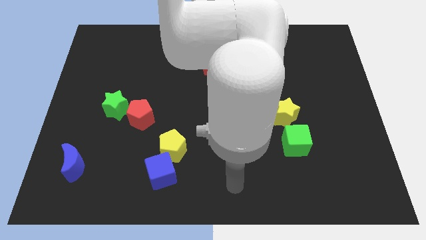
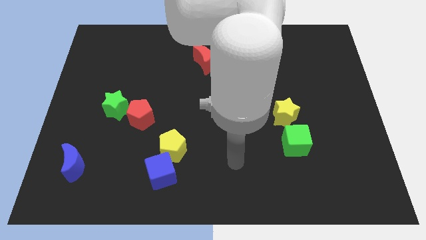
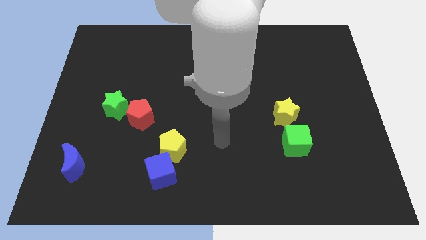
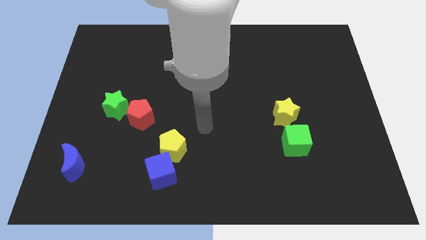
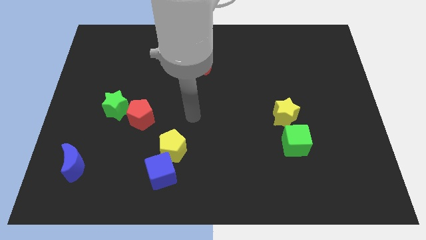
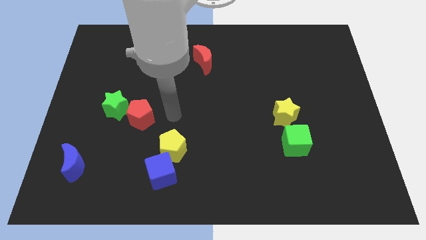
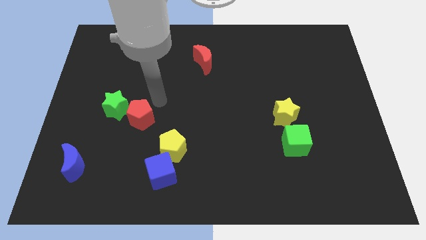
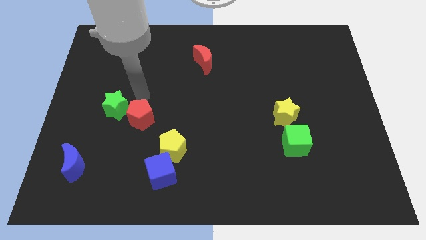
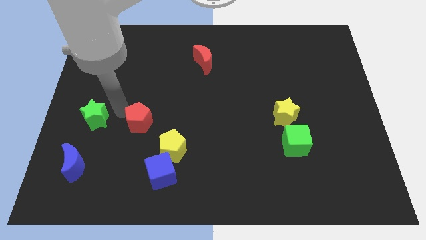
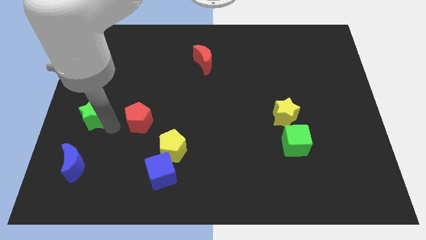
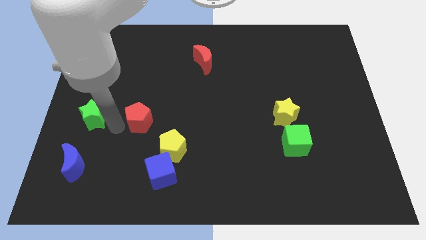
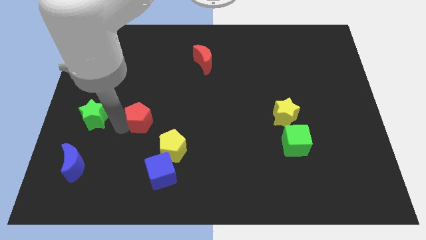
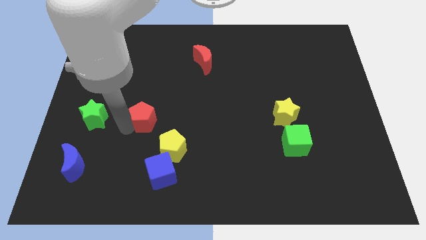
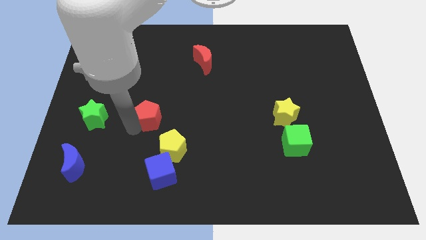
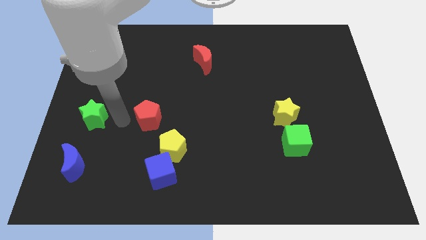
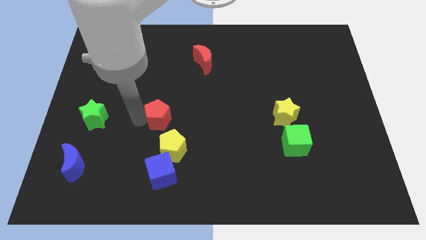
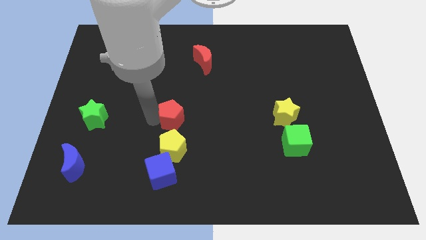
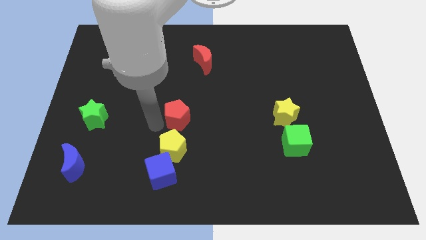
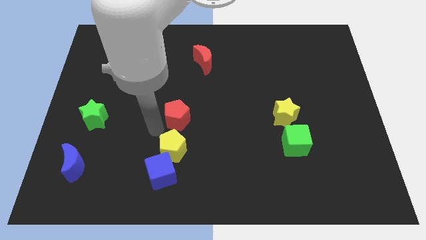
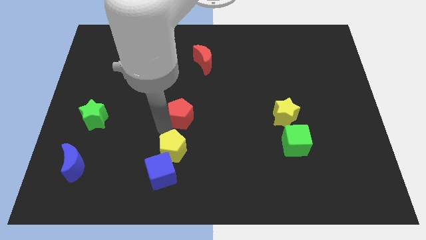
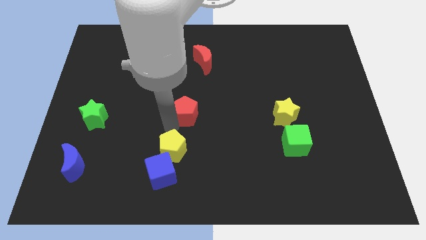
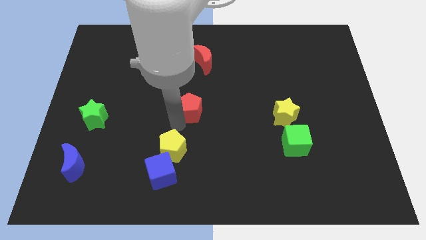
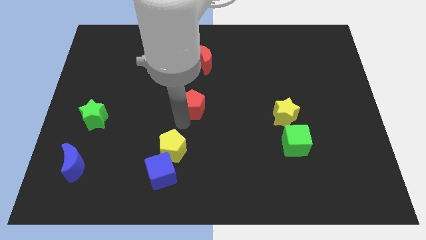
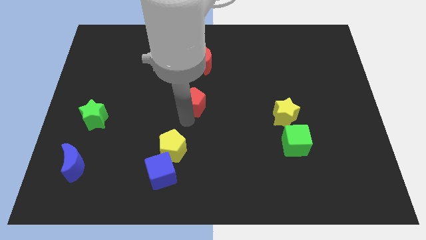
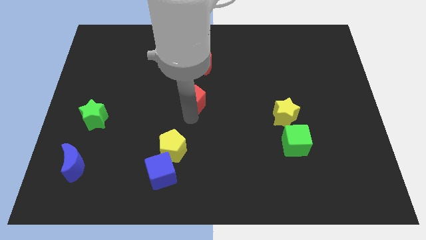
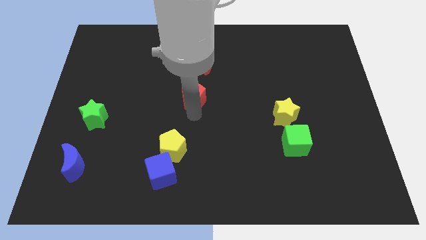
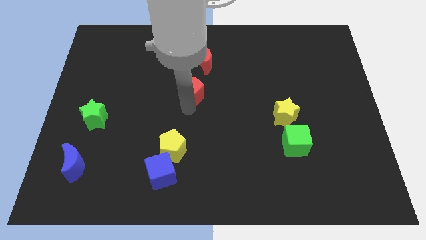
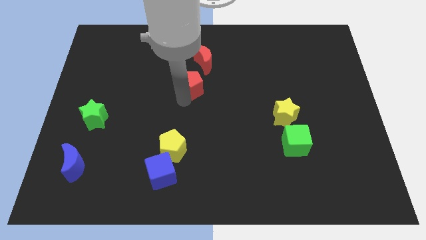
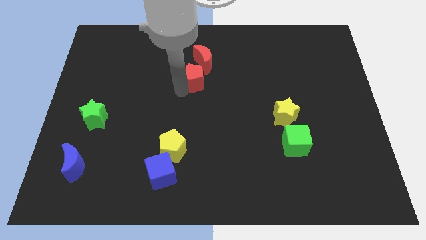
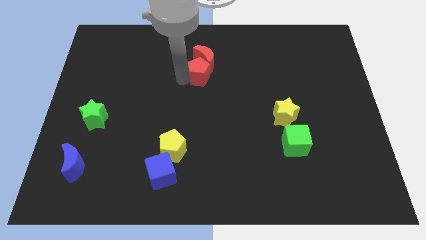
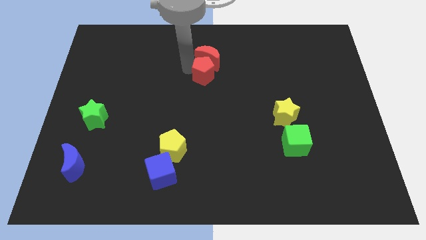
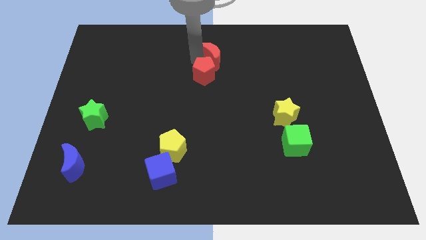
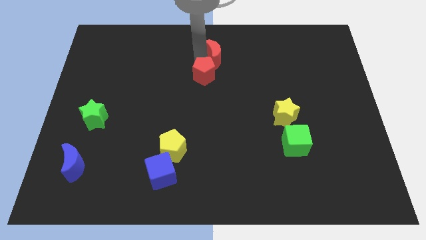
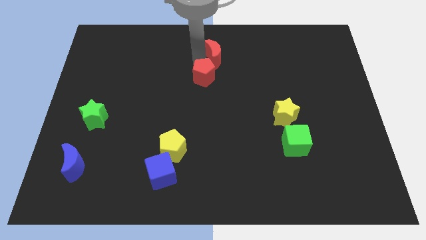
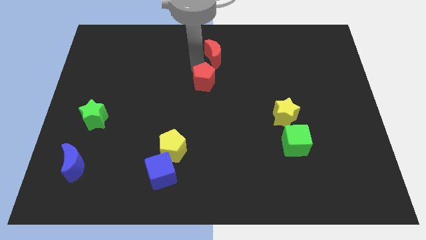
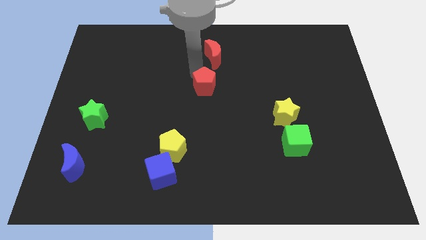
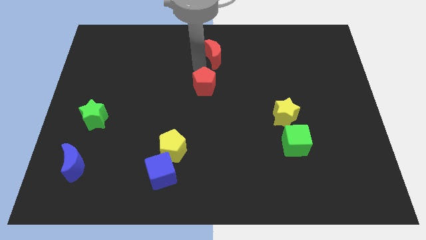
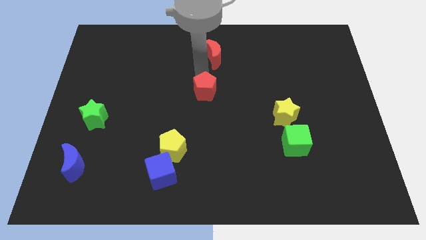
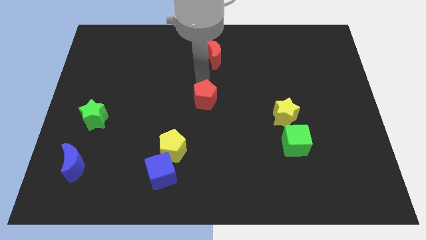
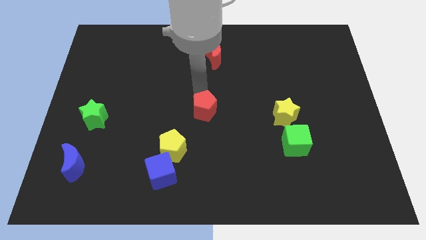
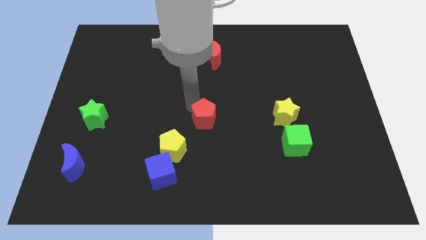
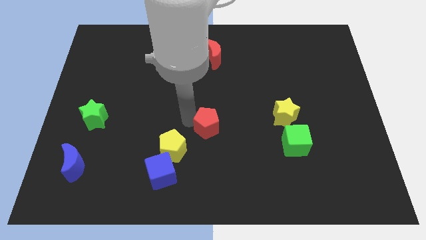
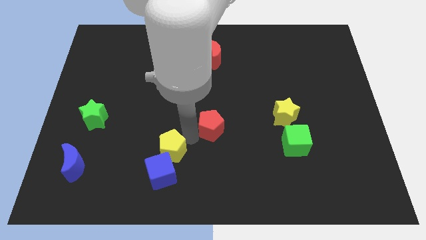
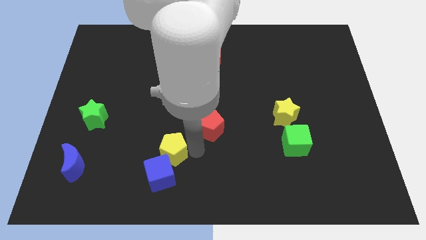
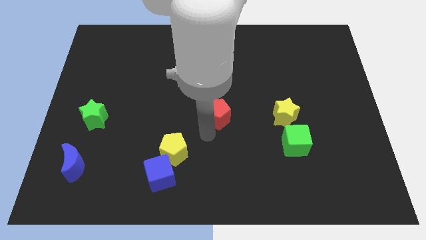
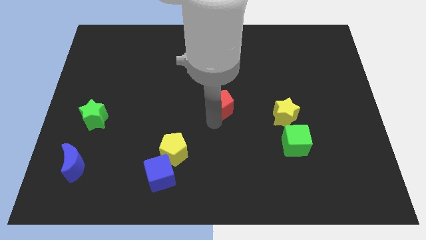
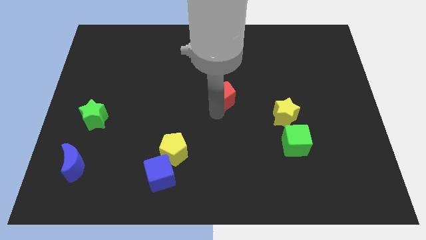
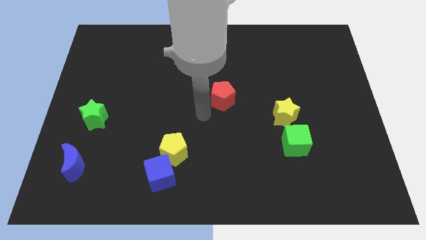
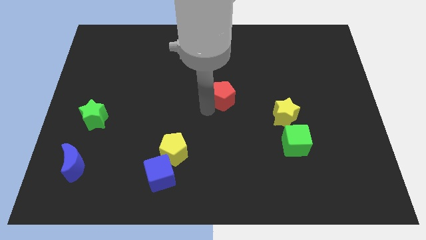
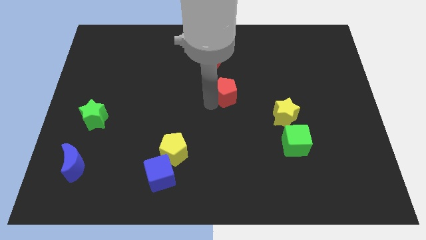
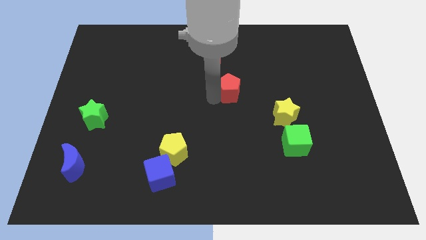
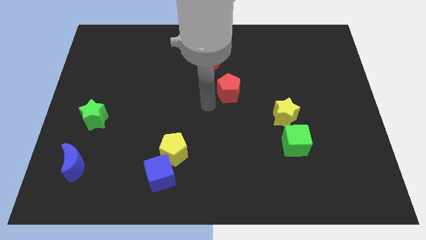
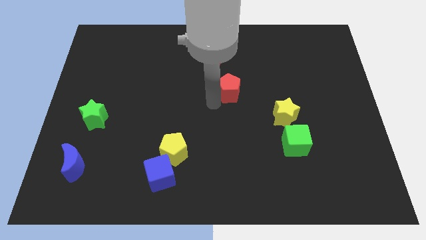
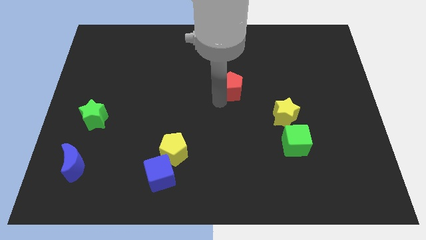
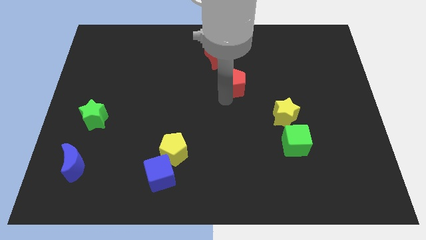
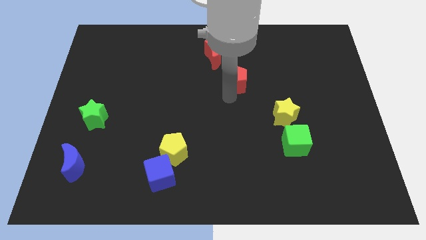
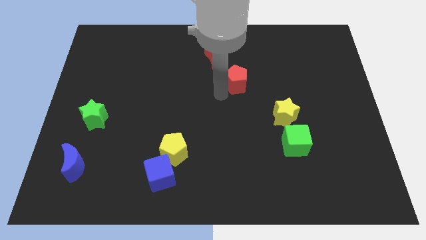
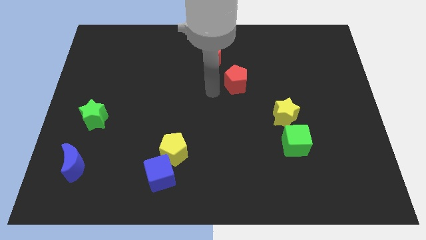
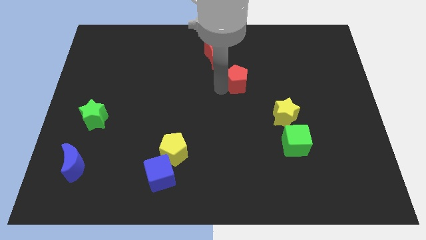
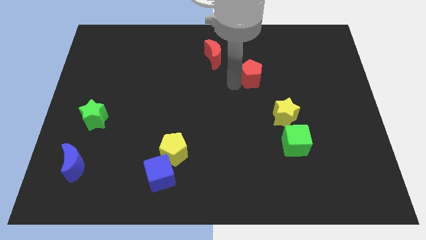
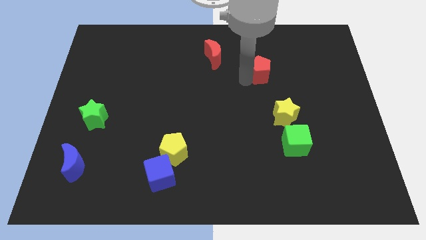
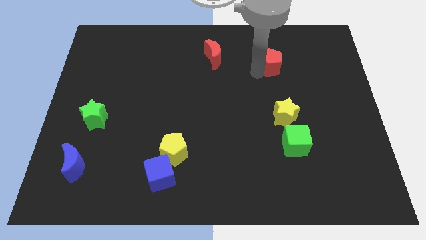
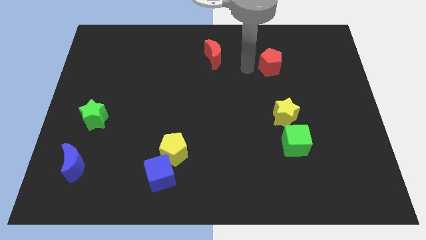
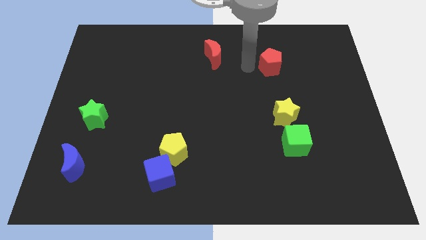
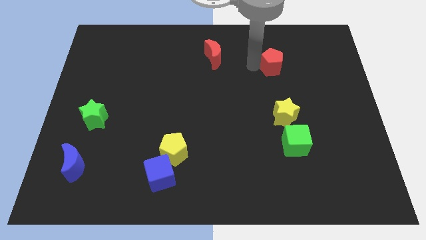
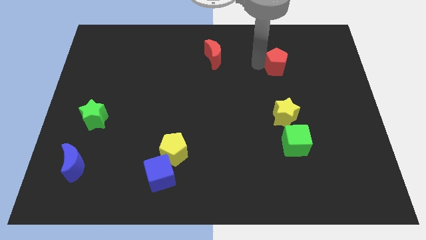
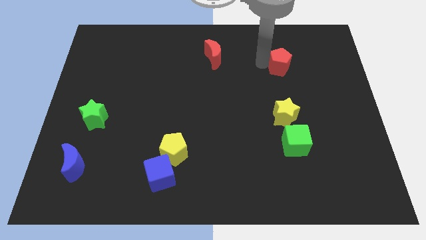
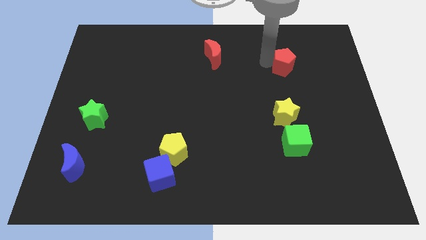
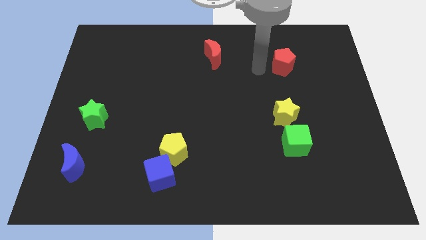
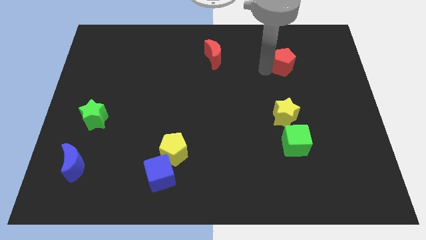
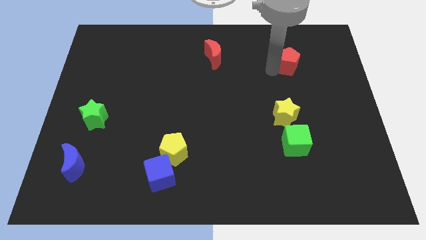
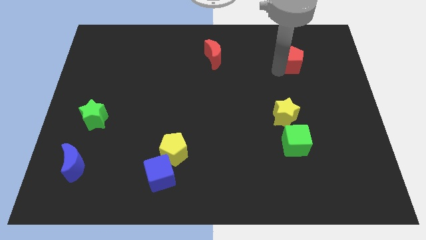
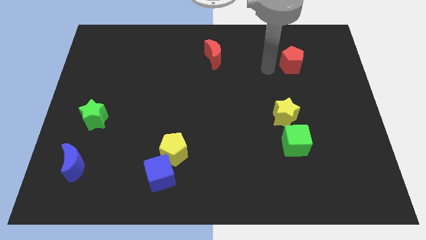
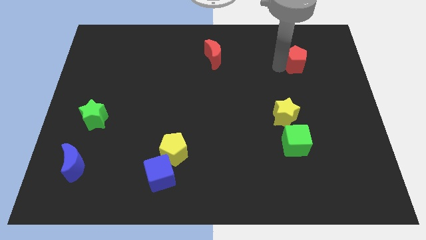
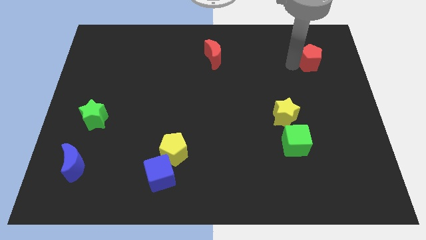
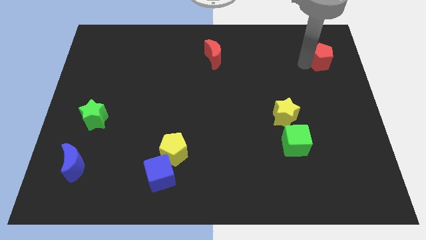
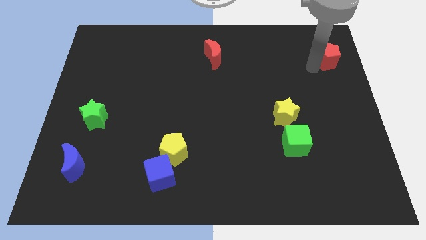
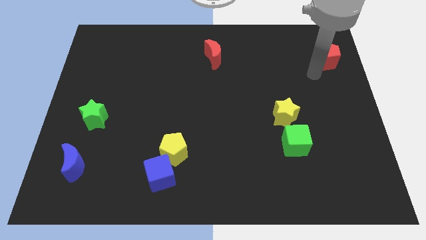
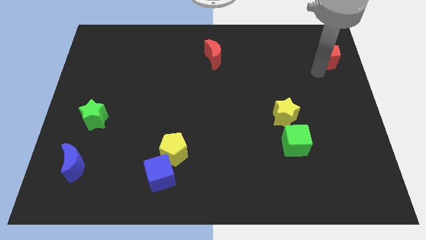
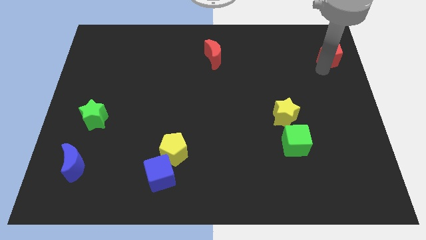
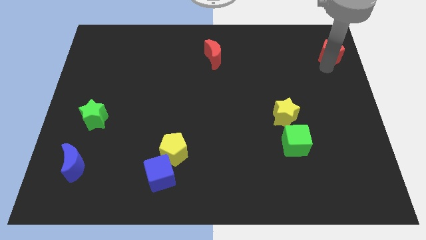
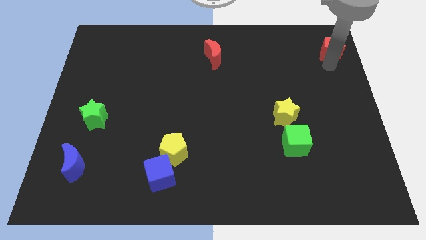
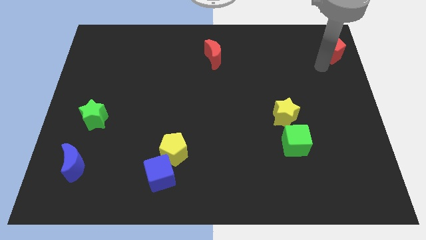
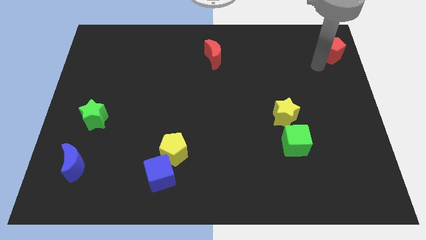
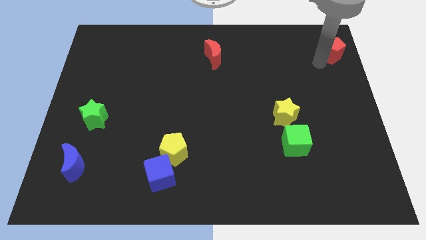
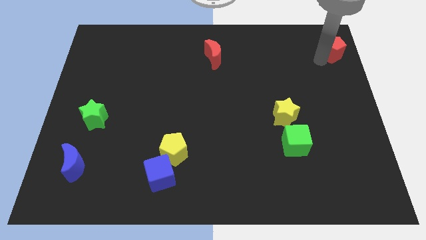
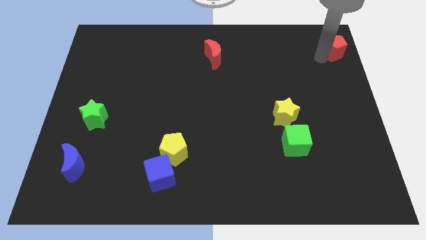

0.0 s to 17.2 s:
put the red pentagon to the top right
